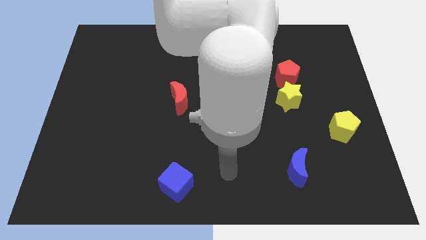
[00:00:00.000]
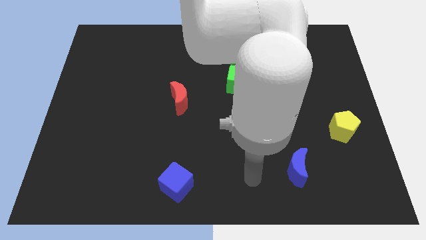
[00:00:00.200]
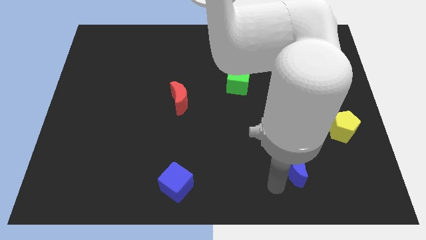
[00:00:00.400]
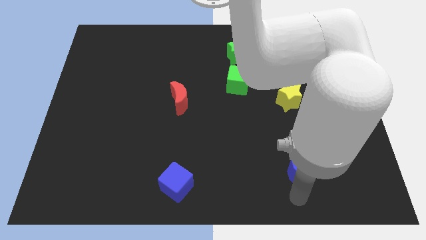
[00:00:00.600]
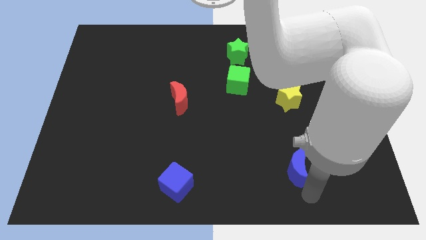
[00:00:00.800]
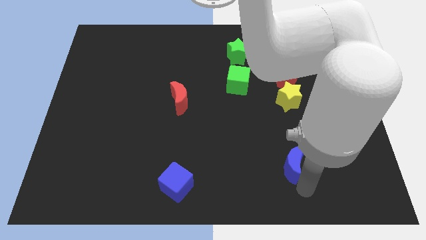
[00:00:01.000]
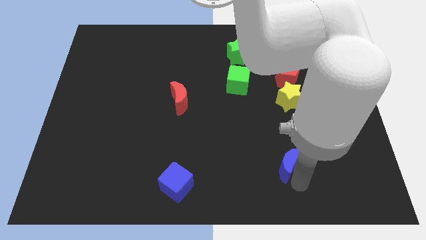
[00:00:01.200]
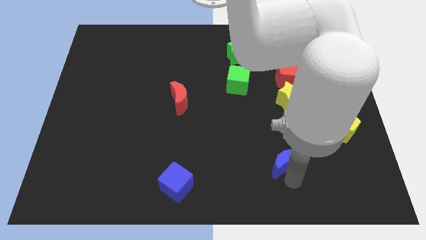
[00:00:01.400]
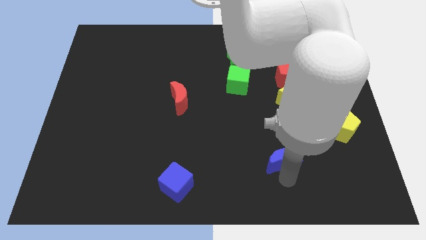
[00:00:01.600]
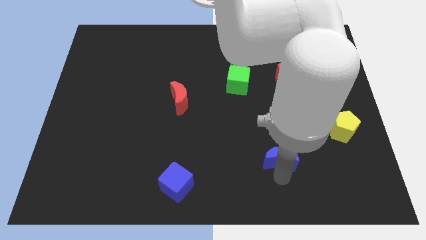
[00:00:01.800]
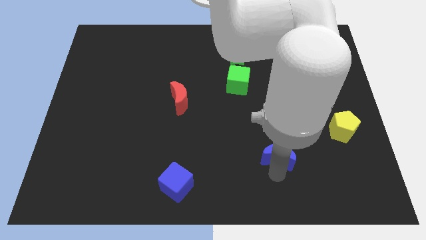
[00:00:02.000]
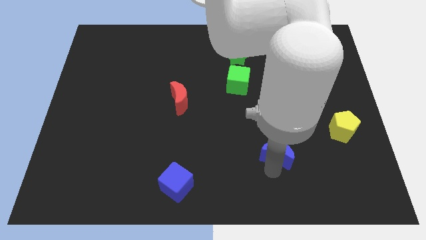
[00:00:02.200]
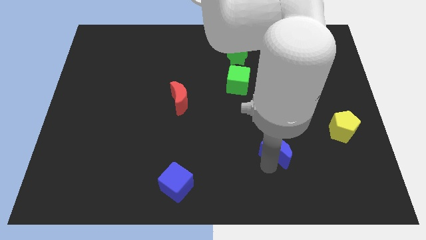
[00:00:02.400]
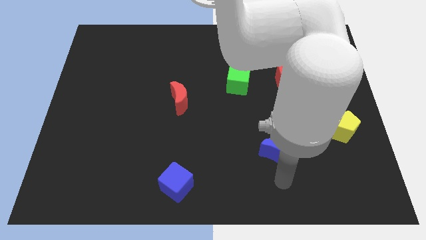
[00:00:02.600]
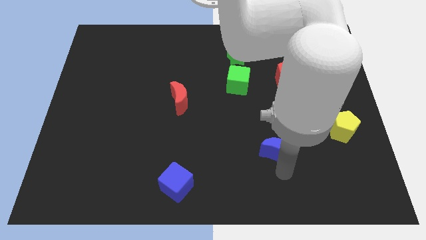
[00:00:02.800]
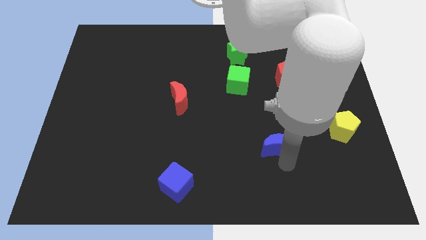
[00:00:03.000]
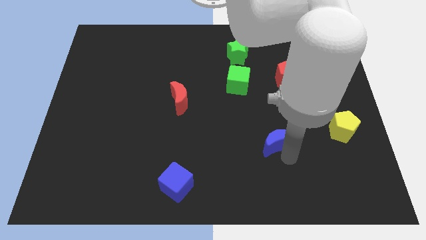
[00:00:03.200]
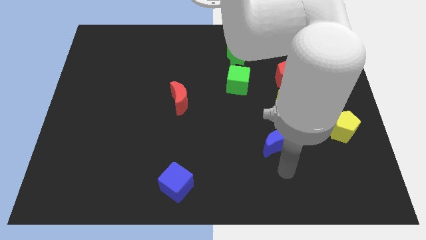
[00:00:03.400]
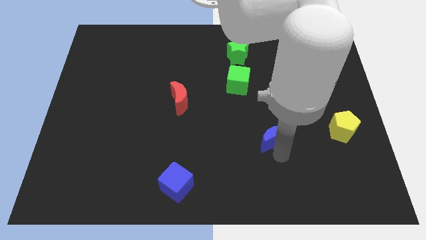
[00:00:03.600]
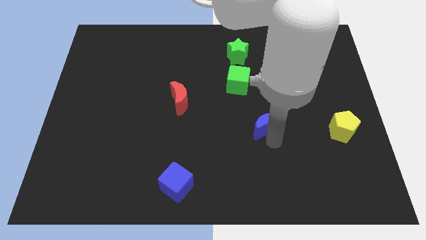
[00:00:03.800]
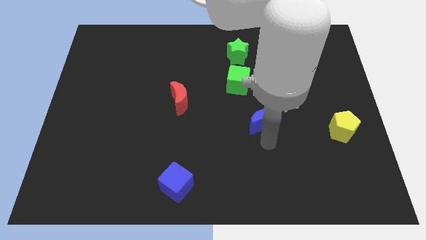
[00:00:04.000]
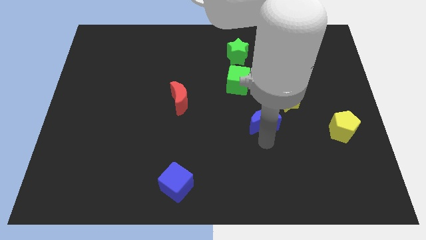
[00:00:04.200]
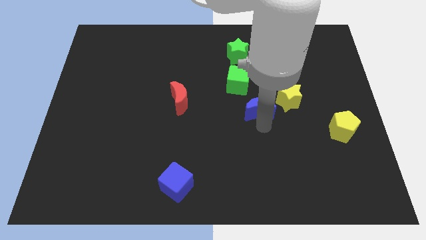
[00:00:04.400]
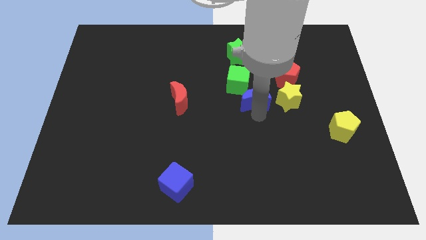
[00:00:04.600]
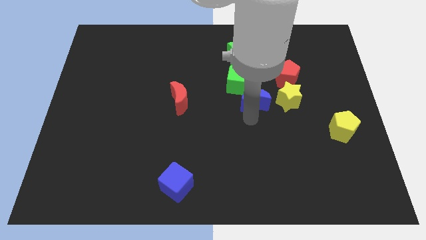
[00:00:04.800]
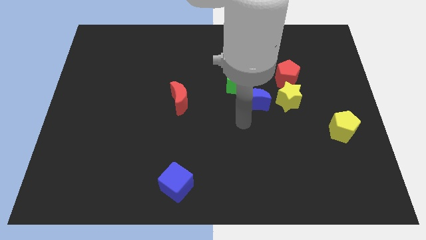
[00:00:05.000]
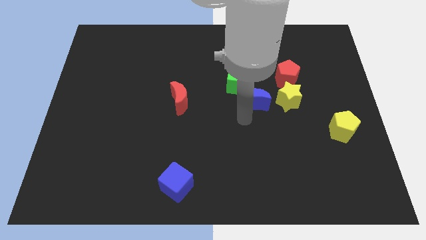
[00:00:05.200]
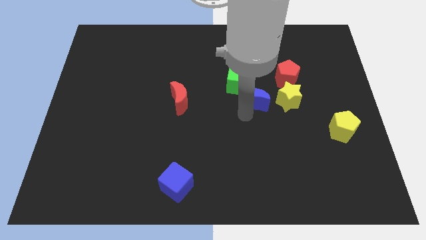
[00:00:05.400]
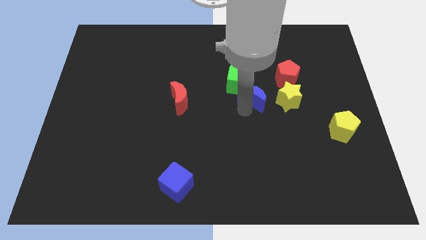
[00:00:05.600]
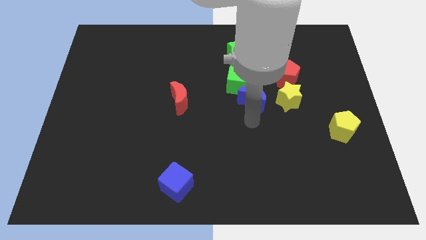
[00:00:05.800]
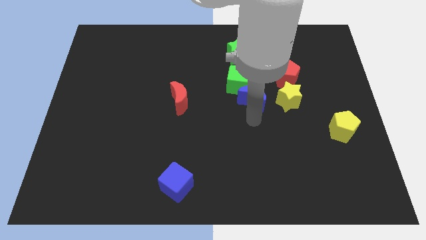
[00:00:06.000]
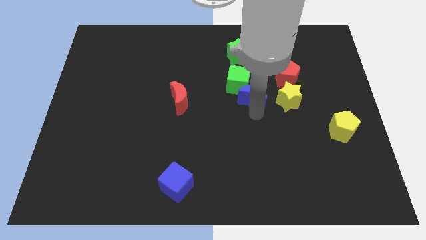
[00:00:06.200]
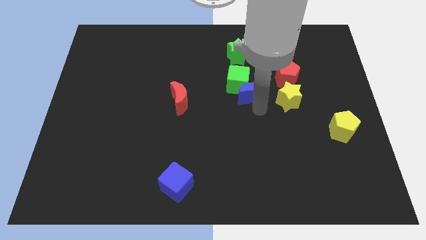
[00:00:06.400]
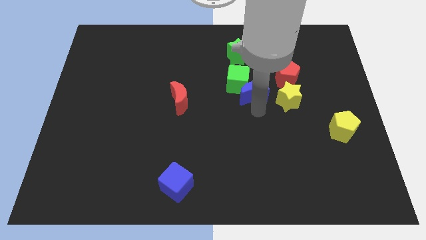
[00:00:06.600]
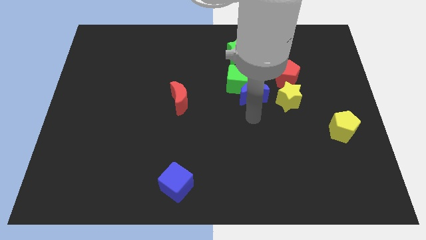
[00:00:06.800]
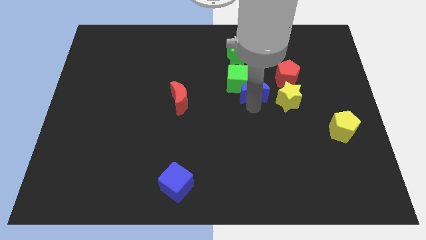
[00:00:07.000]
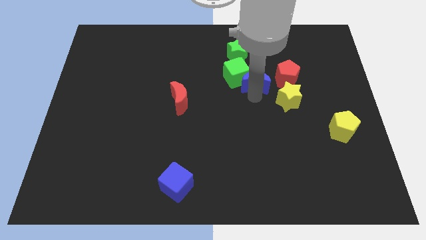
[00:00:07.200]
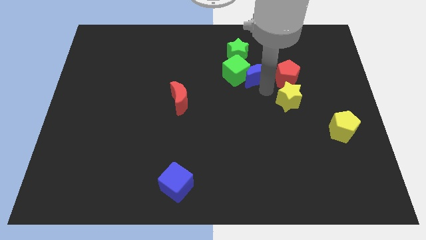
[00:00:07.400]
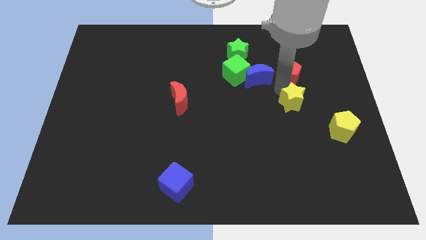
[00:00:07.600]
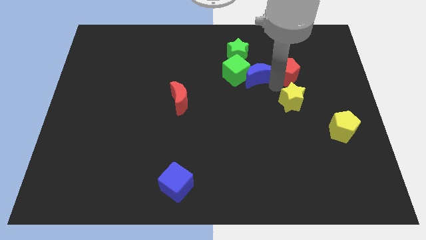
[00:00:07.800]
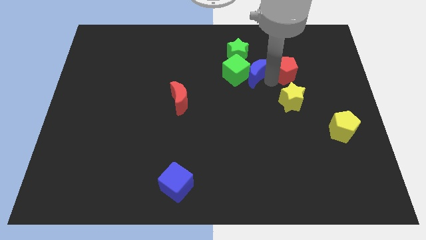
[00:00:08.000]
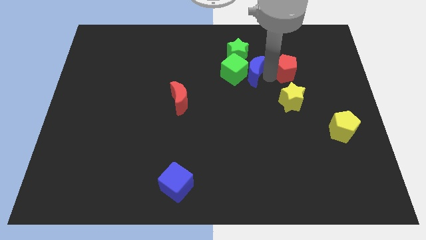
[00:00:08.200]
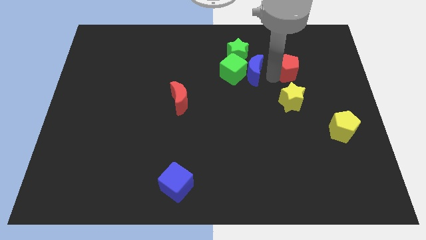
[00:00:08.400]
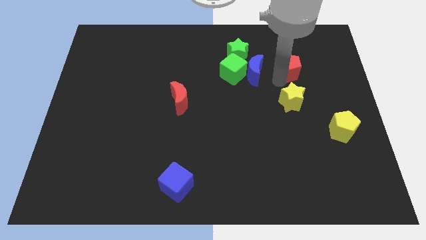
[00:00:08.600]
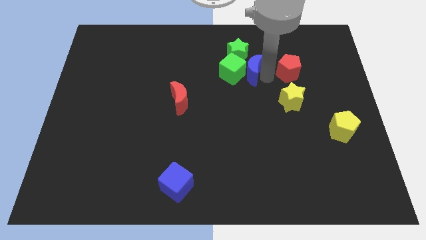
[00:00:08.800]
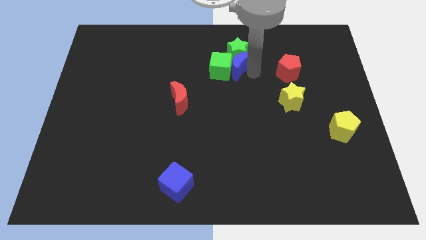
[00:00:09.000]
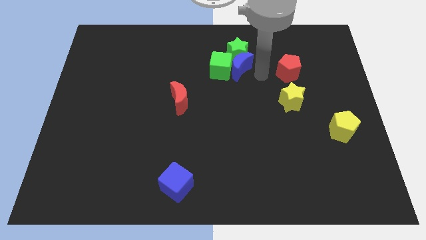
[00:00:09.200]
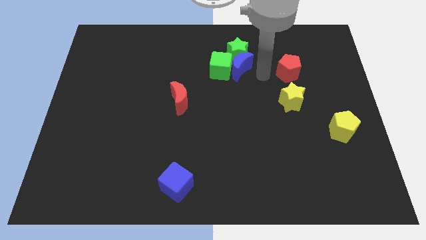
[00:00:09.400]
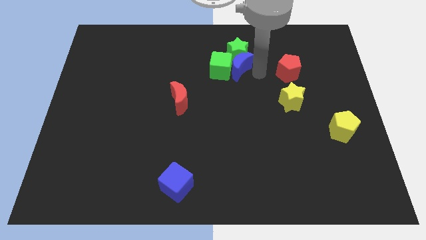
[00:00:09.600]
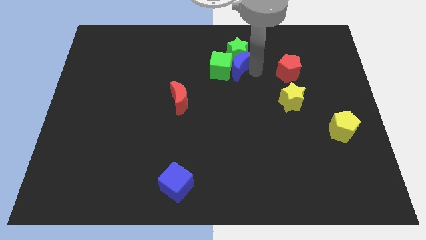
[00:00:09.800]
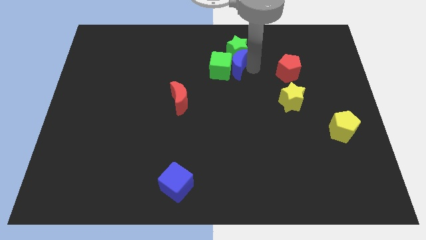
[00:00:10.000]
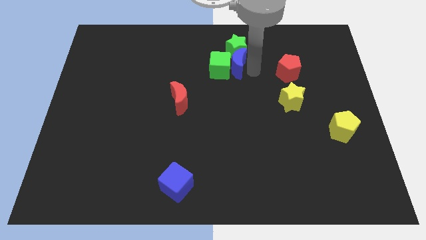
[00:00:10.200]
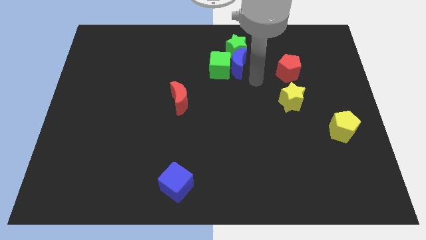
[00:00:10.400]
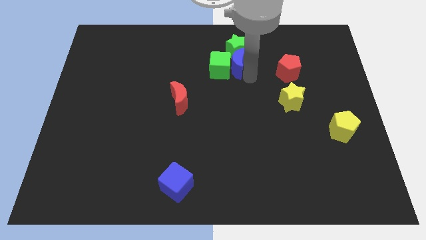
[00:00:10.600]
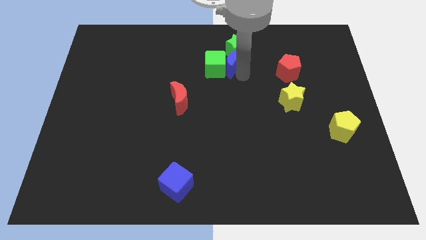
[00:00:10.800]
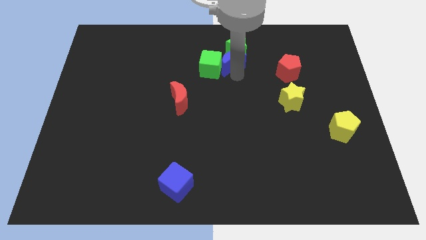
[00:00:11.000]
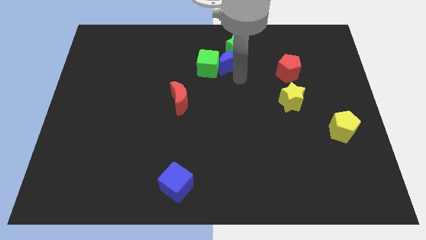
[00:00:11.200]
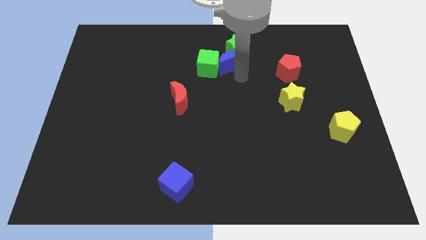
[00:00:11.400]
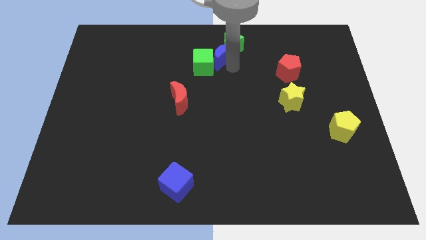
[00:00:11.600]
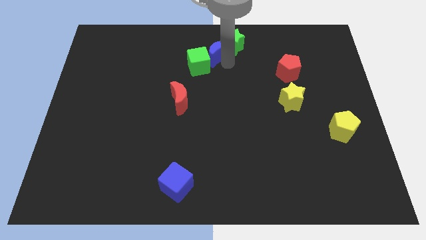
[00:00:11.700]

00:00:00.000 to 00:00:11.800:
push the blue moon to the top
